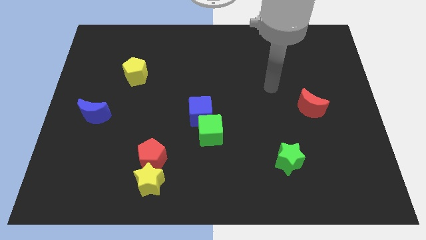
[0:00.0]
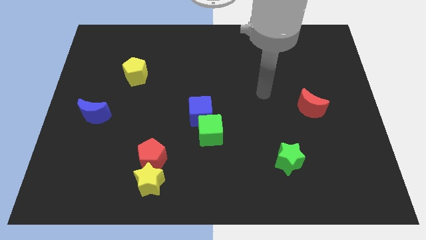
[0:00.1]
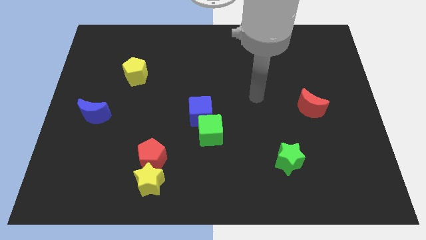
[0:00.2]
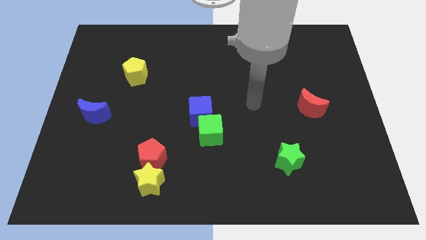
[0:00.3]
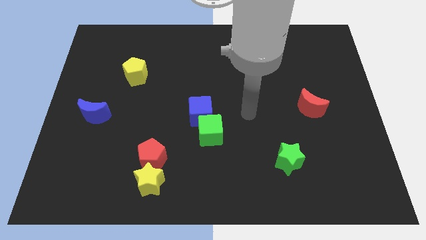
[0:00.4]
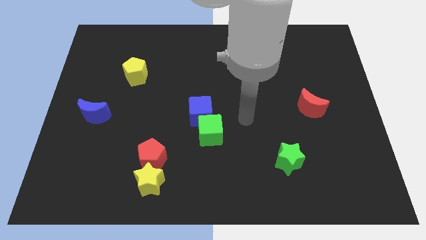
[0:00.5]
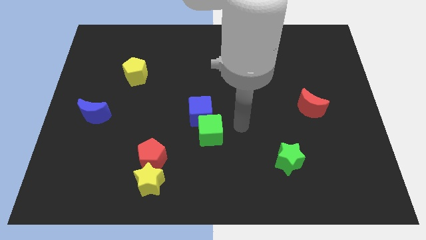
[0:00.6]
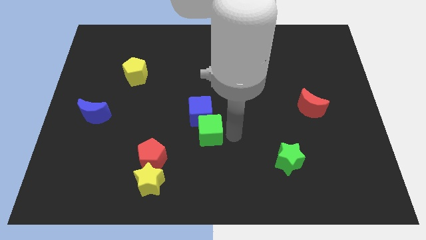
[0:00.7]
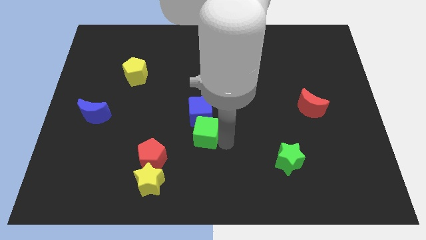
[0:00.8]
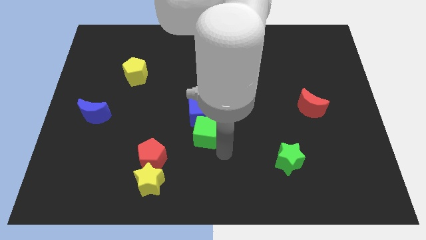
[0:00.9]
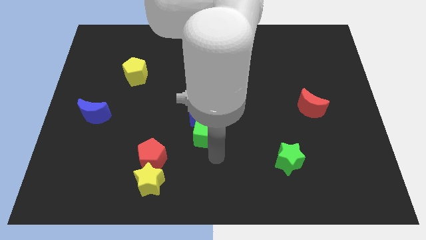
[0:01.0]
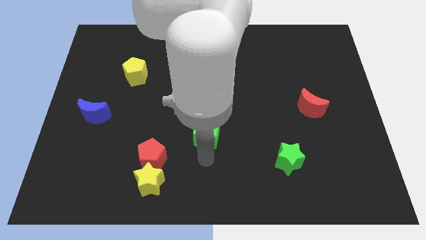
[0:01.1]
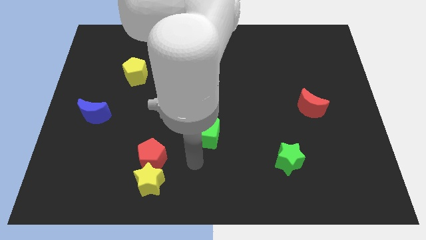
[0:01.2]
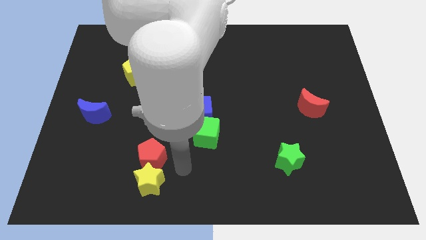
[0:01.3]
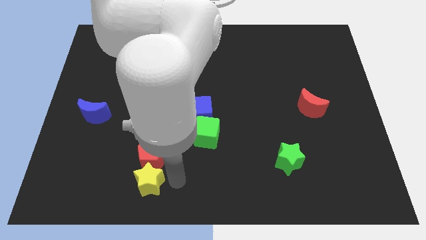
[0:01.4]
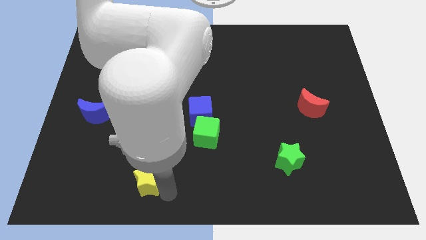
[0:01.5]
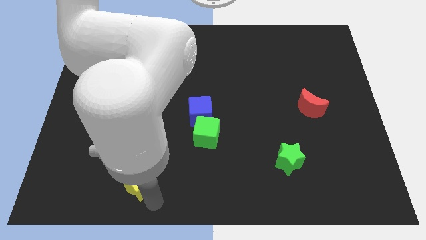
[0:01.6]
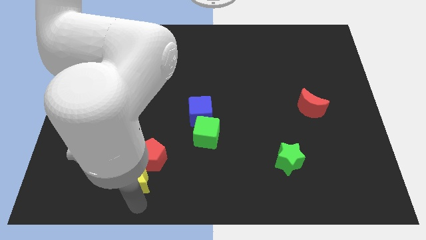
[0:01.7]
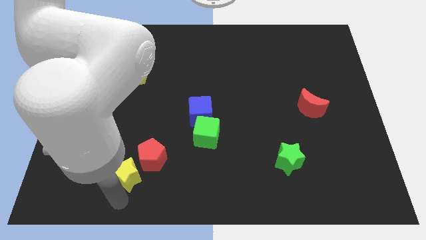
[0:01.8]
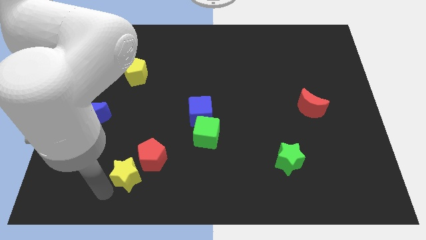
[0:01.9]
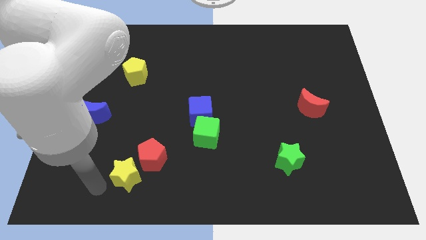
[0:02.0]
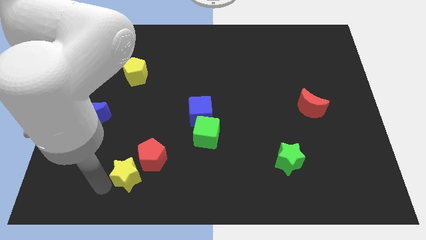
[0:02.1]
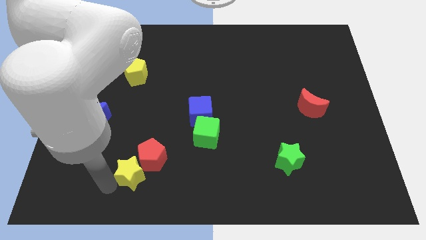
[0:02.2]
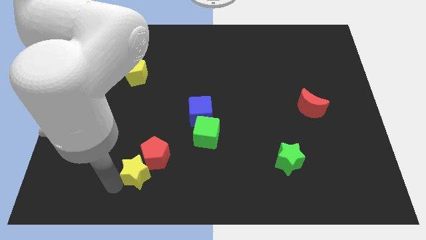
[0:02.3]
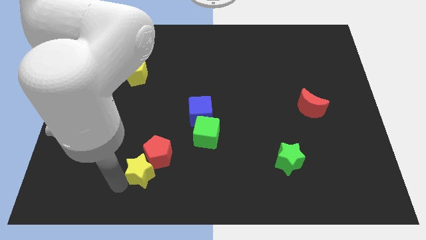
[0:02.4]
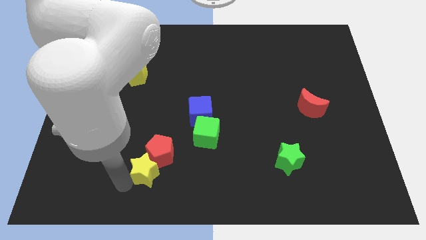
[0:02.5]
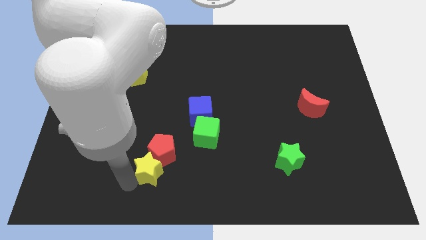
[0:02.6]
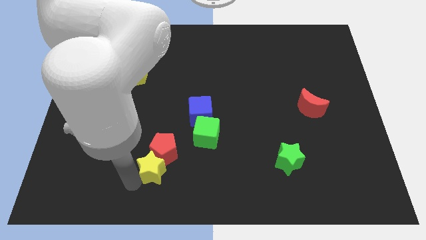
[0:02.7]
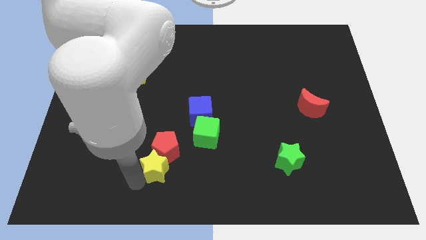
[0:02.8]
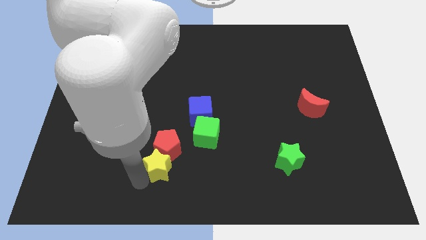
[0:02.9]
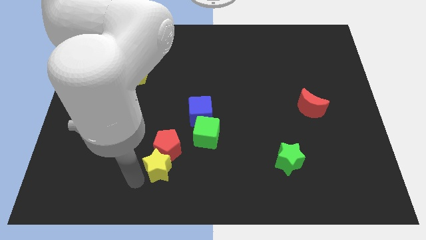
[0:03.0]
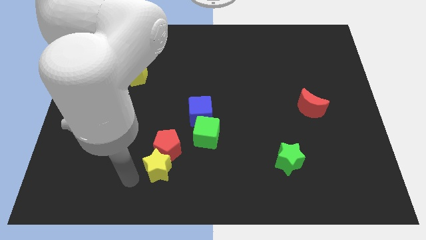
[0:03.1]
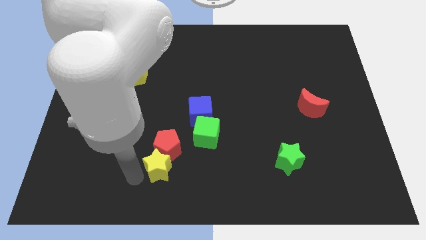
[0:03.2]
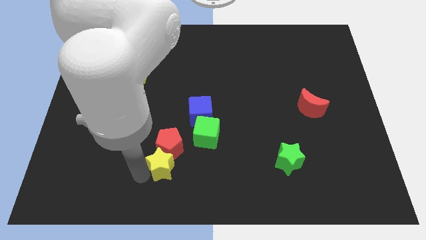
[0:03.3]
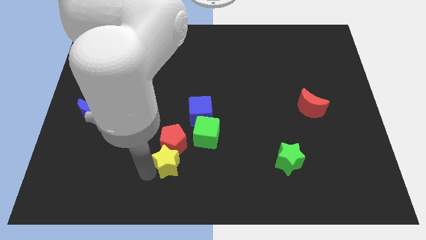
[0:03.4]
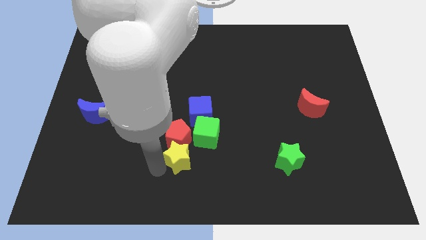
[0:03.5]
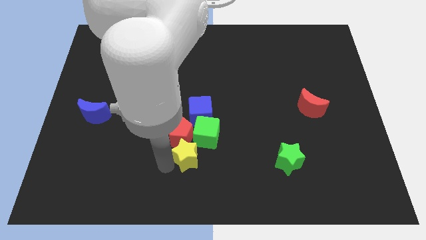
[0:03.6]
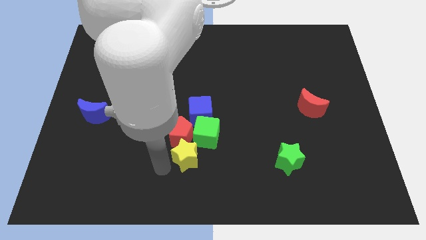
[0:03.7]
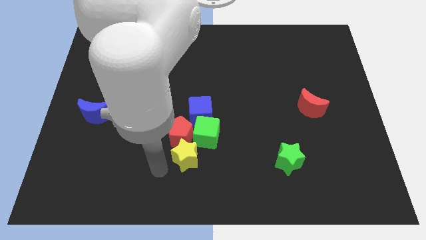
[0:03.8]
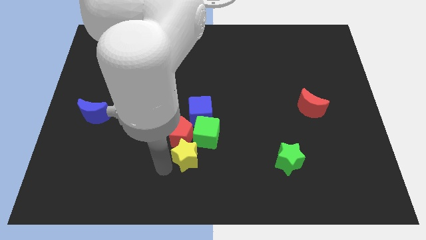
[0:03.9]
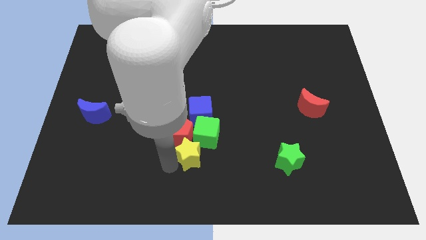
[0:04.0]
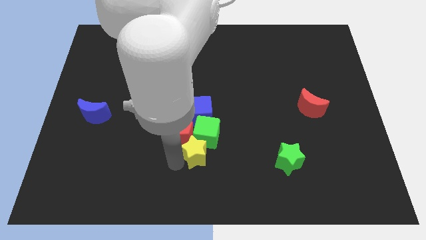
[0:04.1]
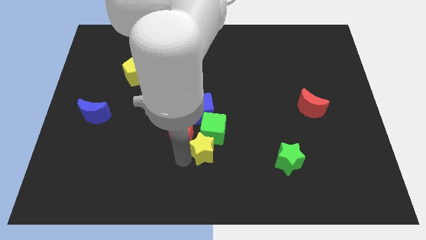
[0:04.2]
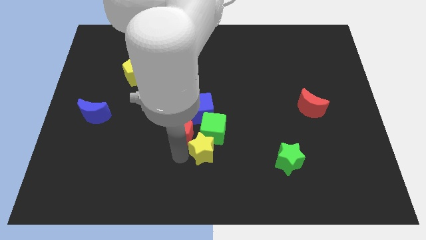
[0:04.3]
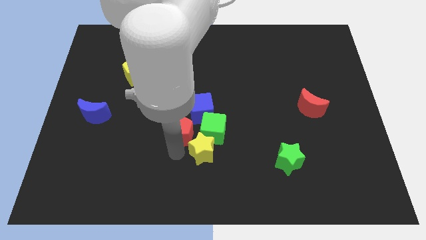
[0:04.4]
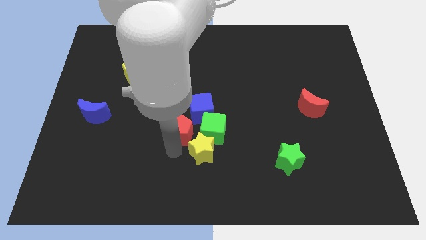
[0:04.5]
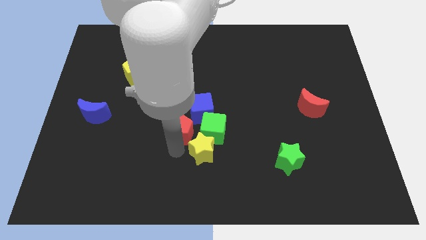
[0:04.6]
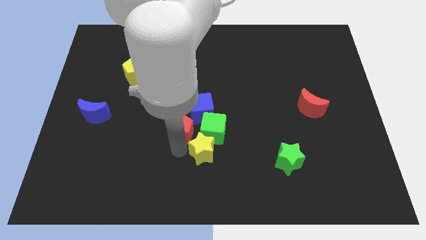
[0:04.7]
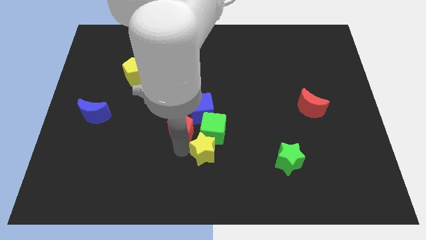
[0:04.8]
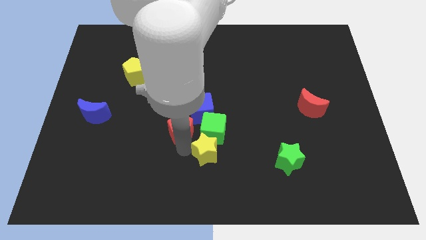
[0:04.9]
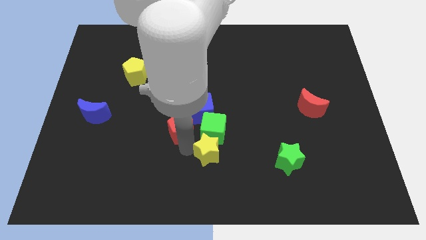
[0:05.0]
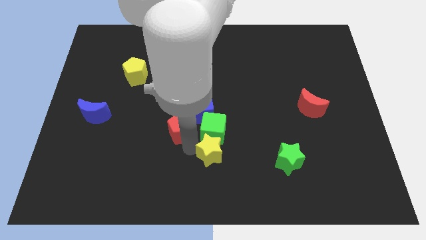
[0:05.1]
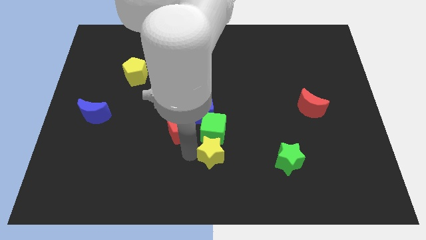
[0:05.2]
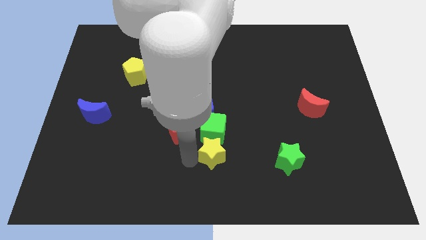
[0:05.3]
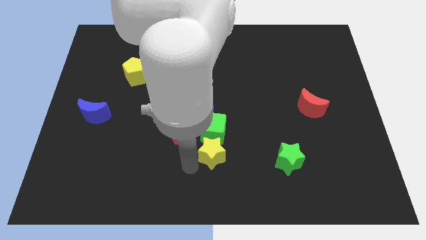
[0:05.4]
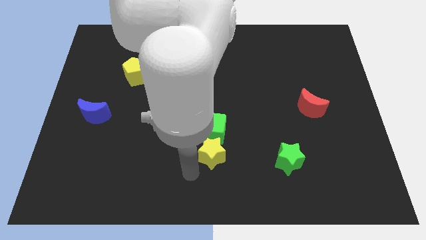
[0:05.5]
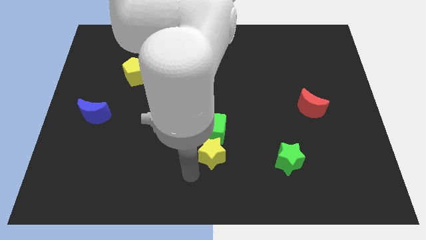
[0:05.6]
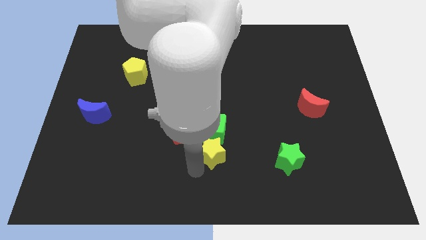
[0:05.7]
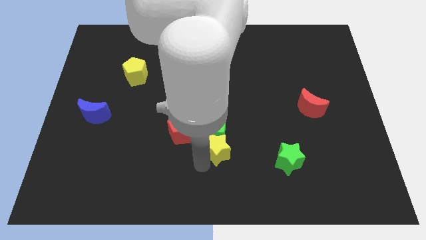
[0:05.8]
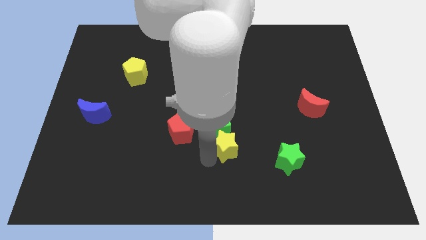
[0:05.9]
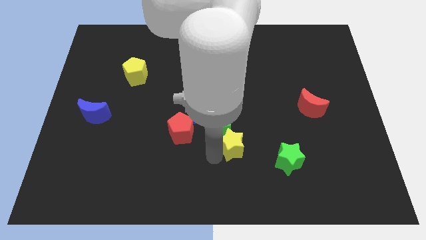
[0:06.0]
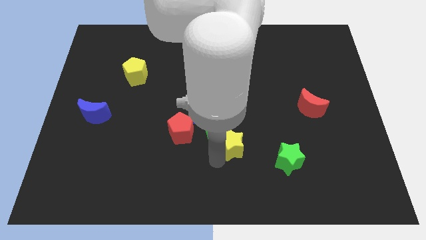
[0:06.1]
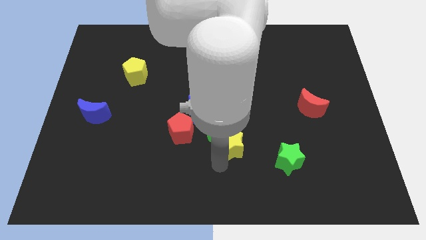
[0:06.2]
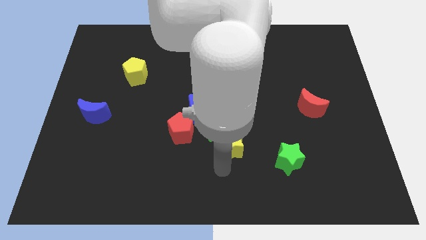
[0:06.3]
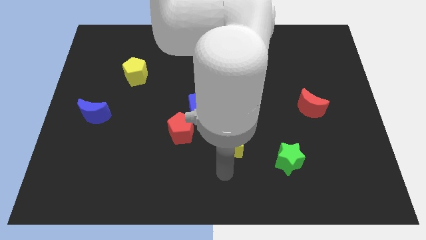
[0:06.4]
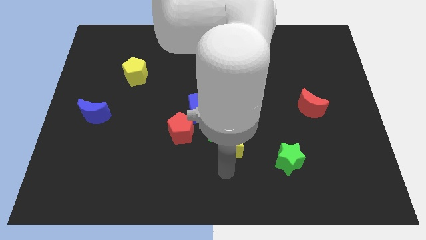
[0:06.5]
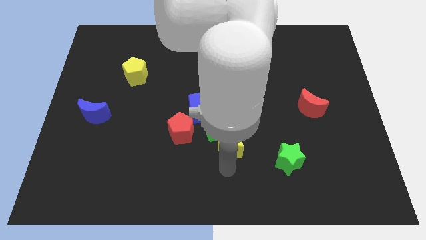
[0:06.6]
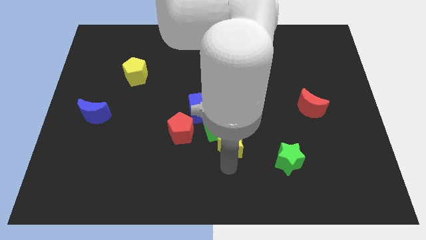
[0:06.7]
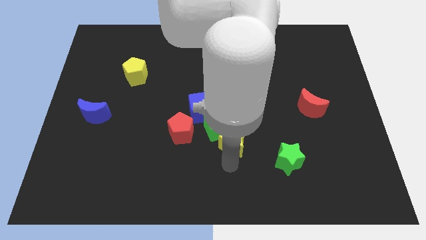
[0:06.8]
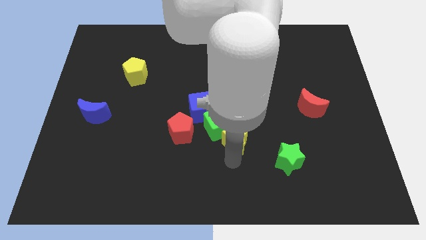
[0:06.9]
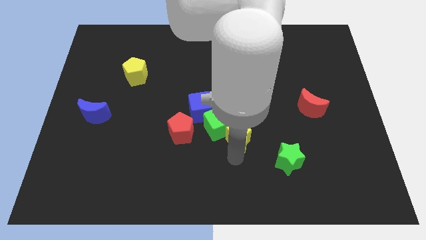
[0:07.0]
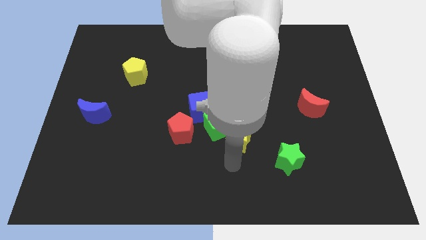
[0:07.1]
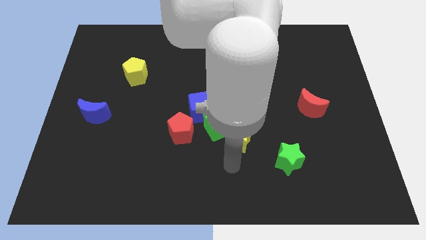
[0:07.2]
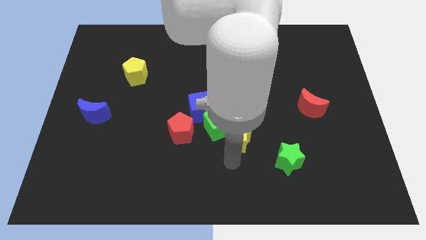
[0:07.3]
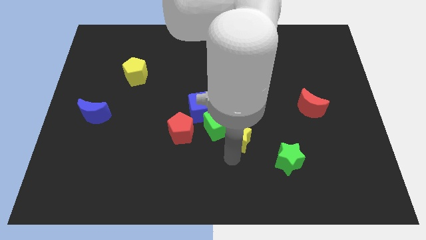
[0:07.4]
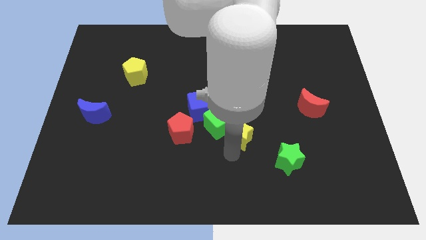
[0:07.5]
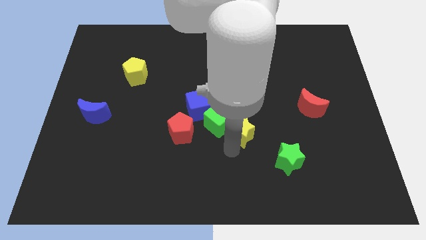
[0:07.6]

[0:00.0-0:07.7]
push the yellow star up and to the right
